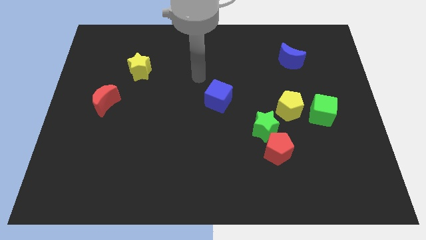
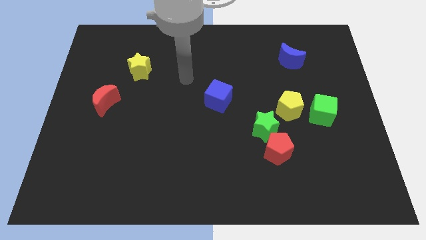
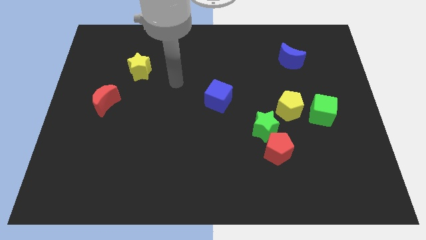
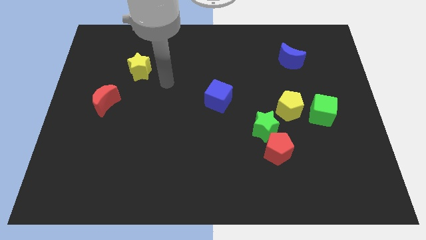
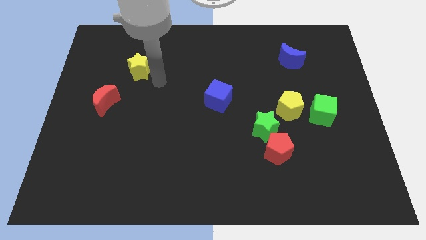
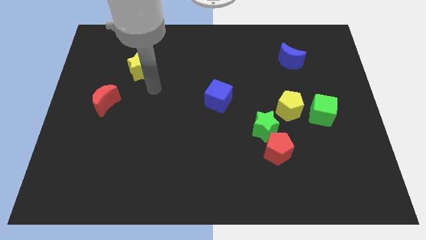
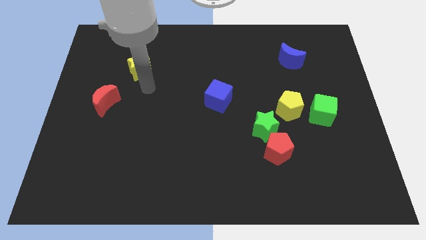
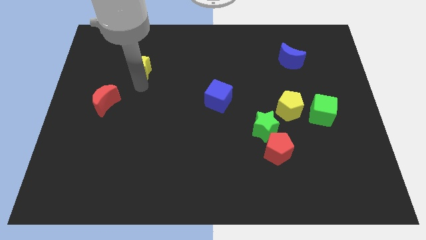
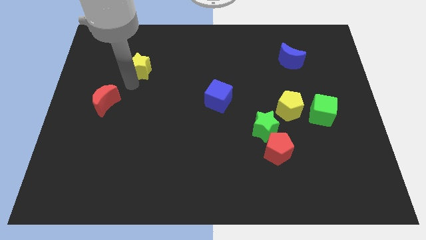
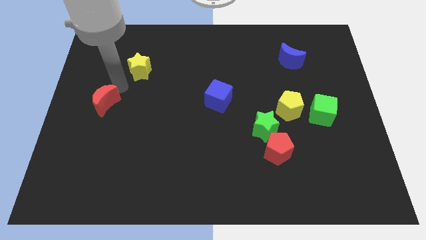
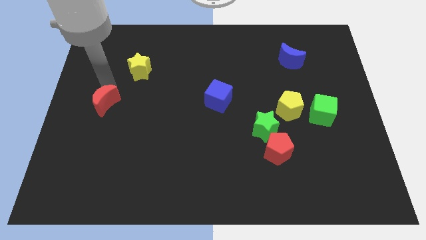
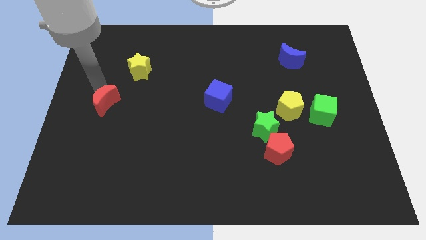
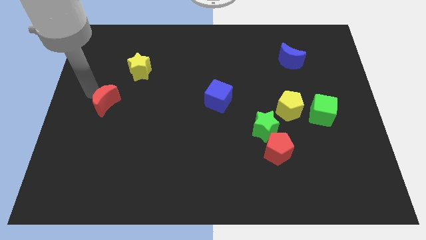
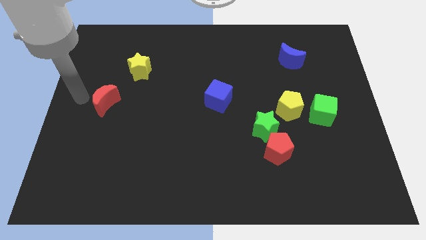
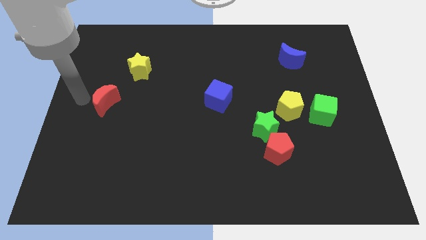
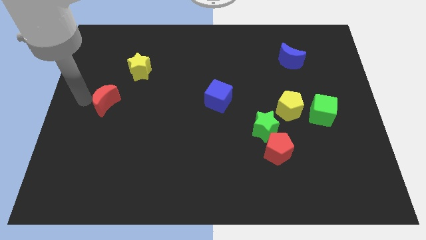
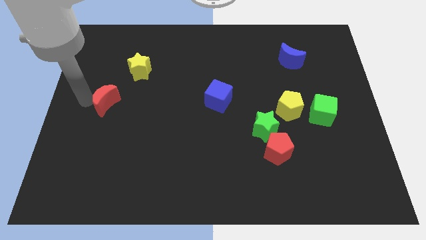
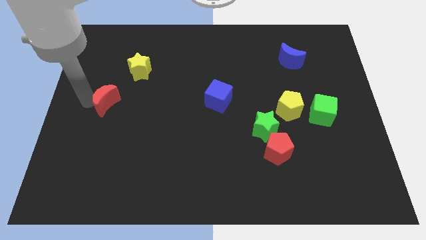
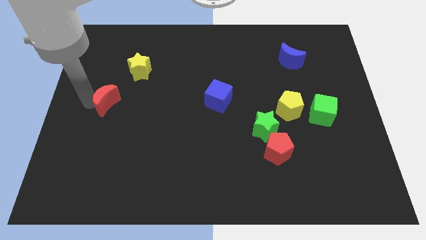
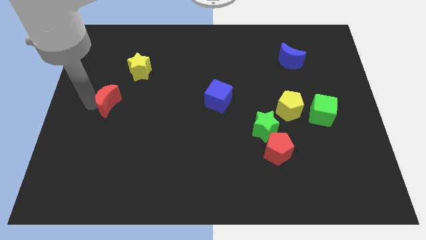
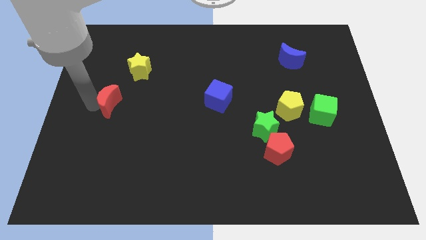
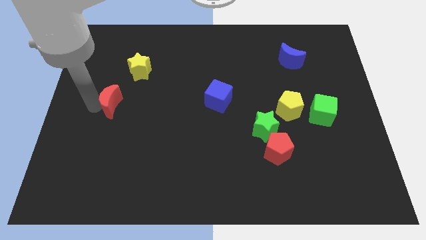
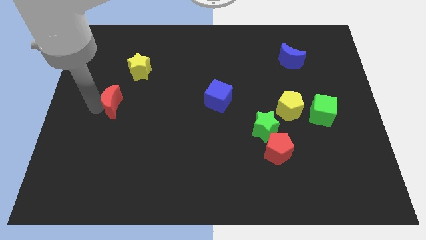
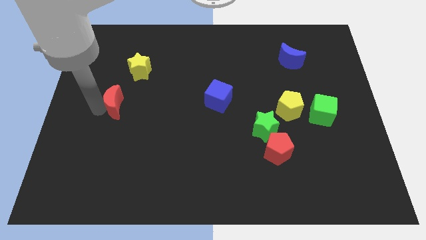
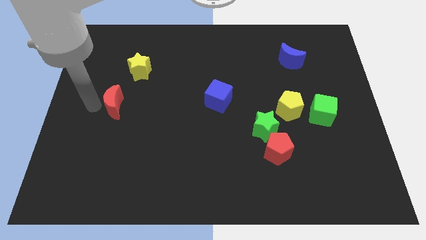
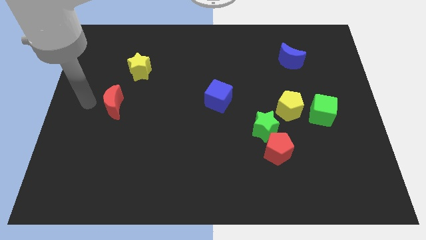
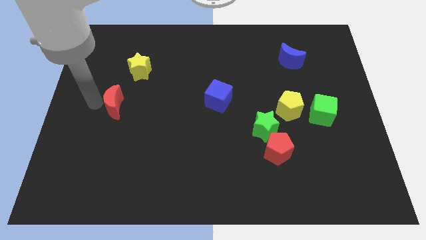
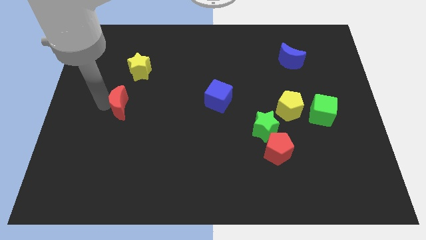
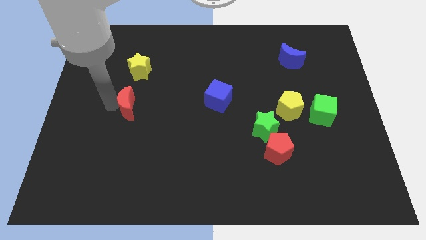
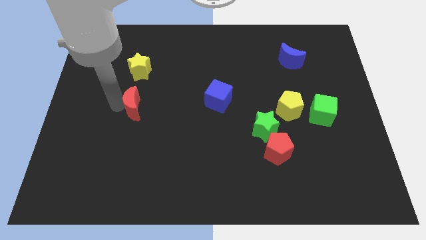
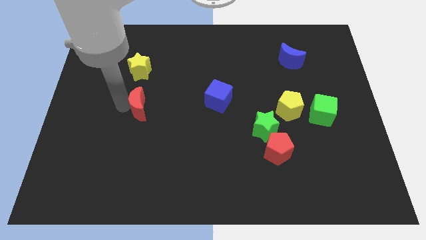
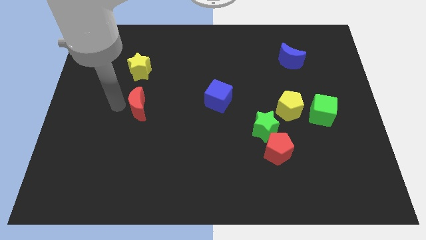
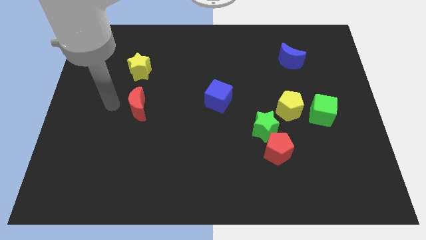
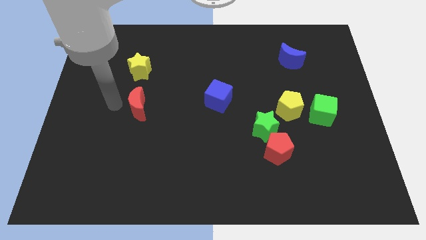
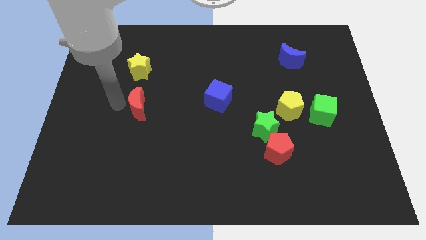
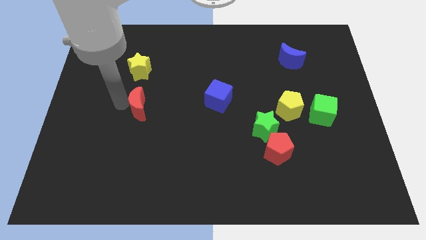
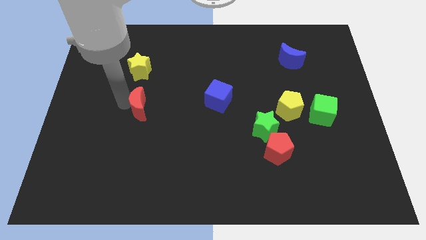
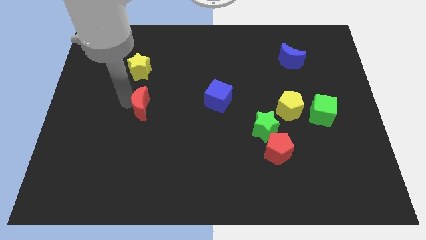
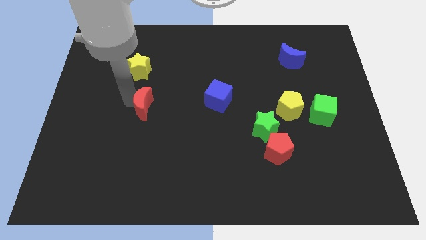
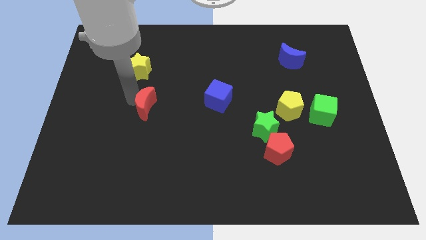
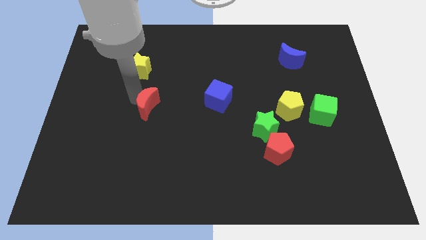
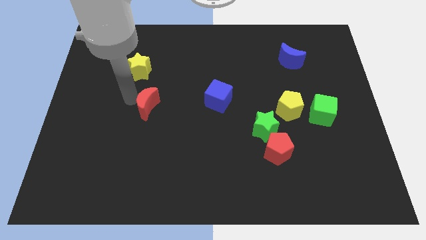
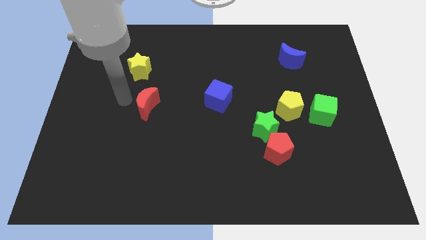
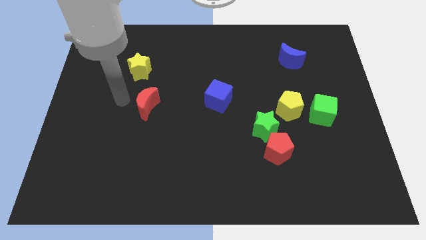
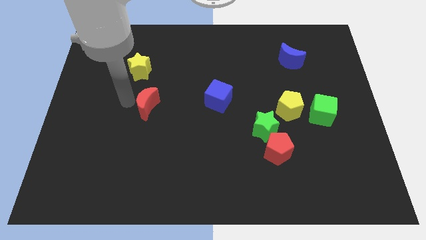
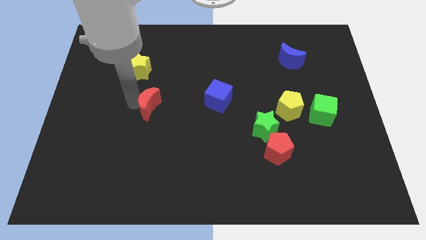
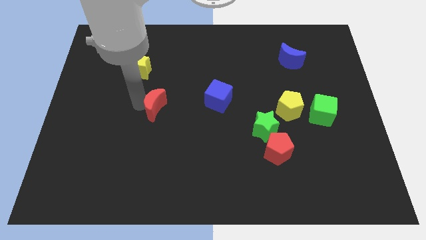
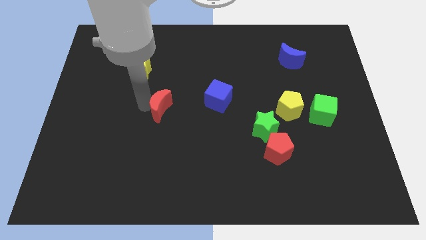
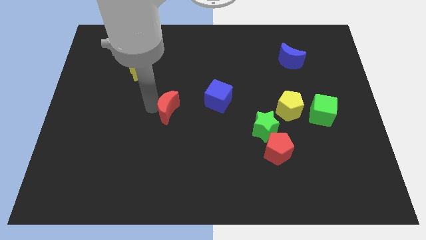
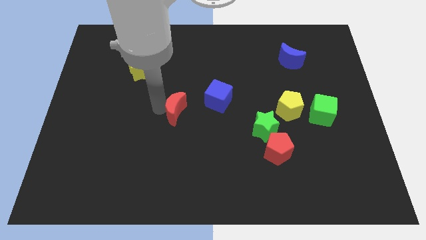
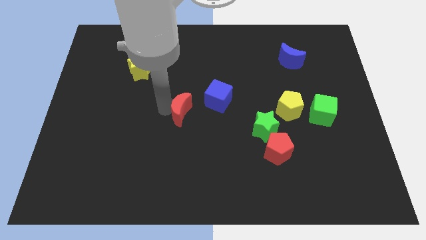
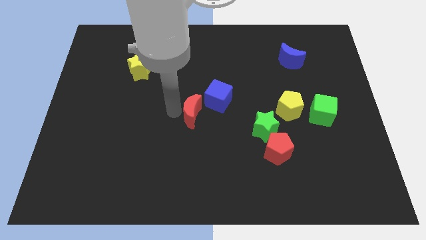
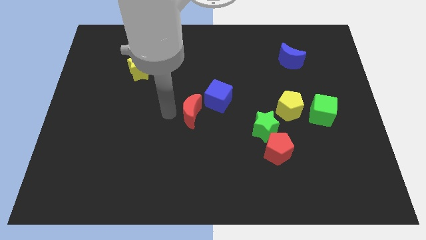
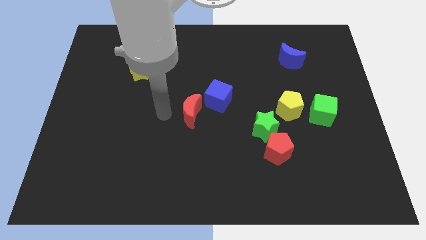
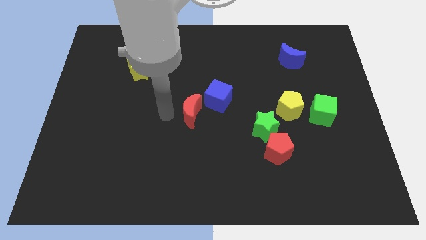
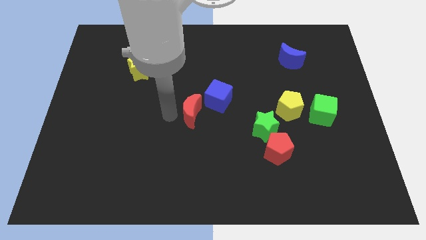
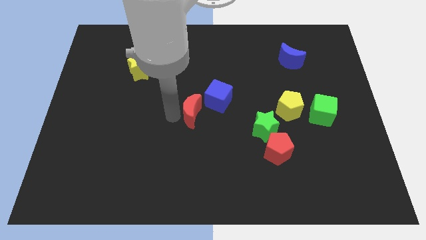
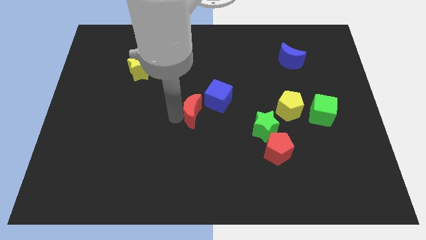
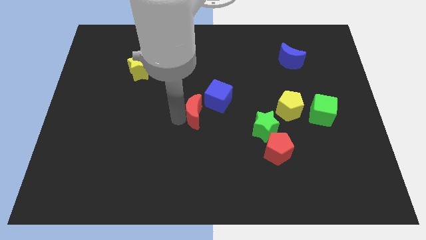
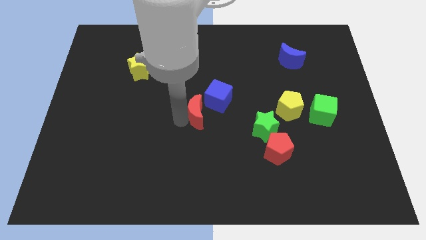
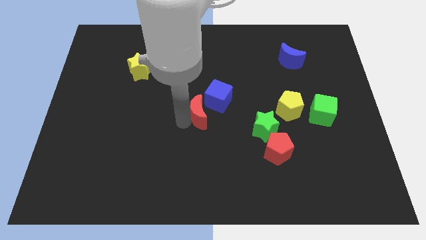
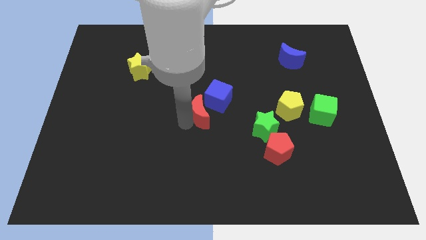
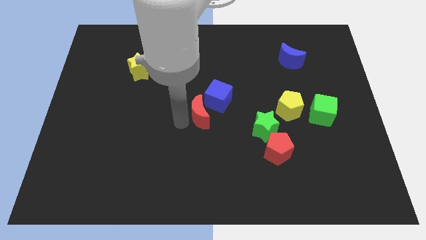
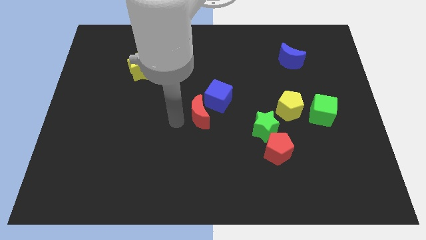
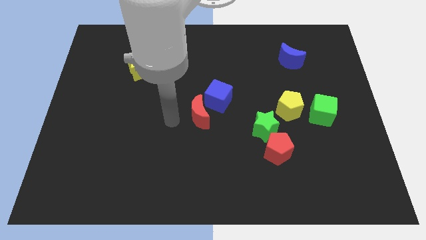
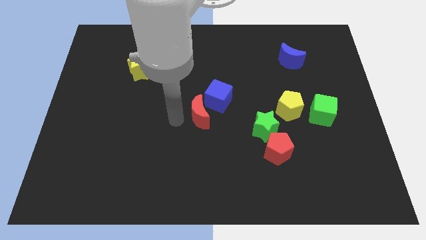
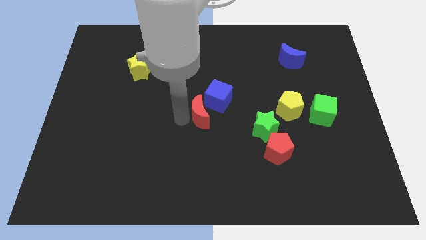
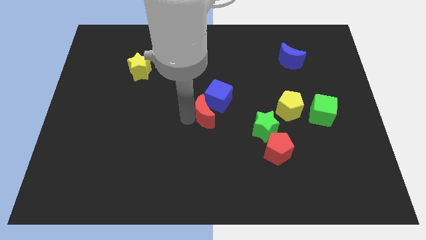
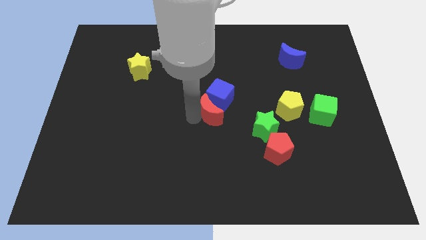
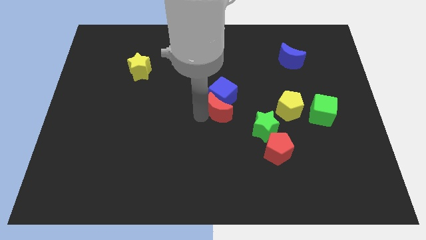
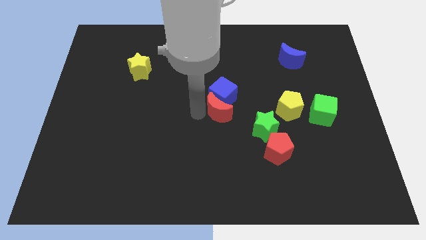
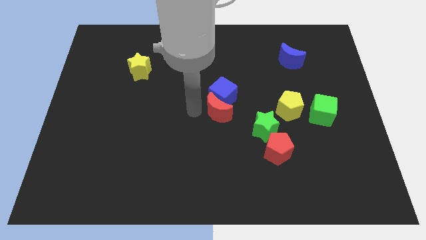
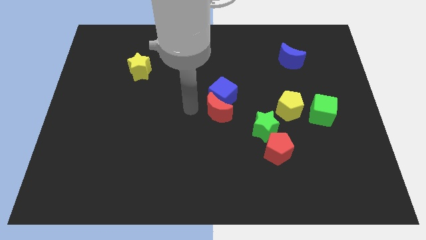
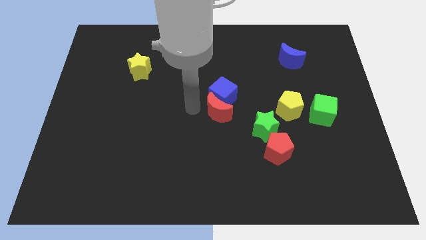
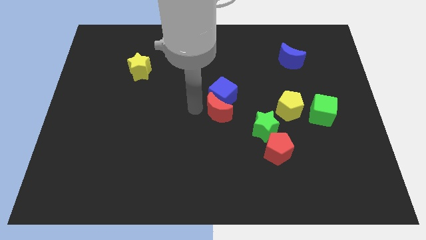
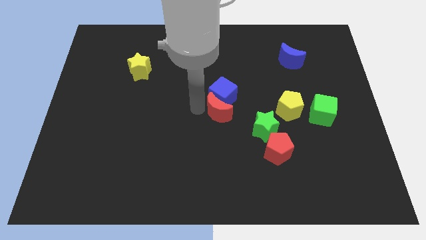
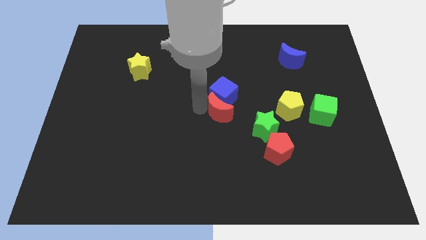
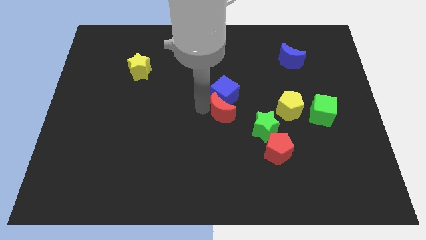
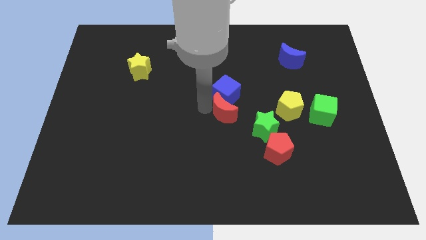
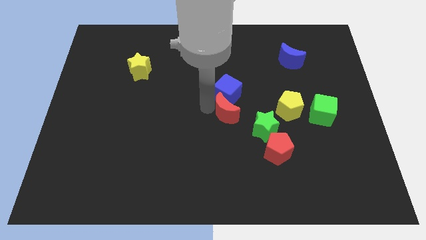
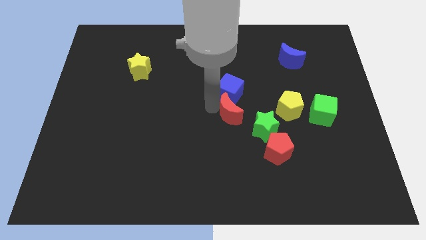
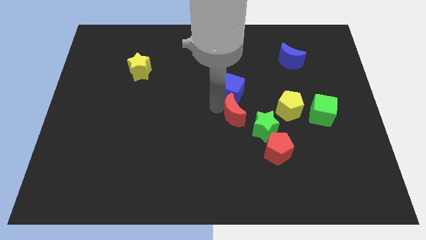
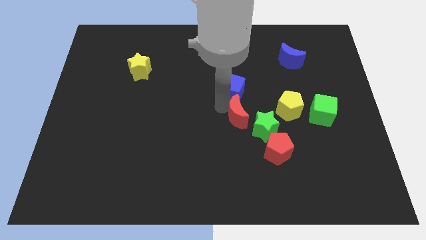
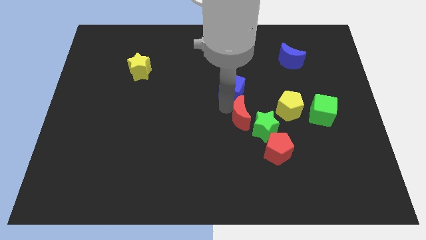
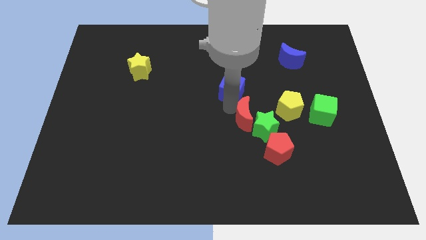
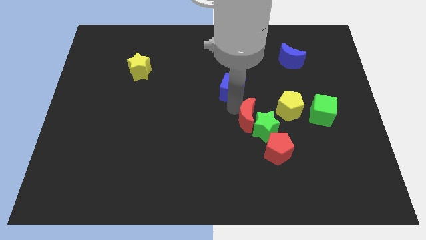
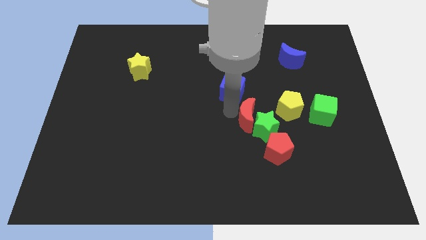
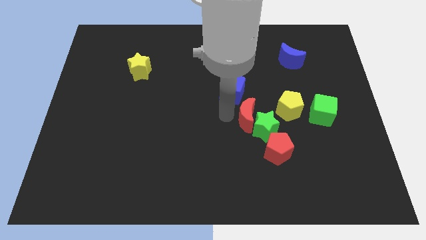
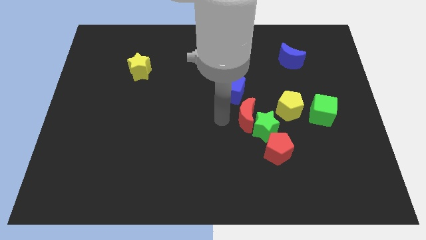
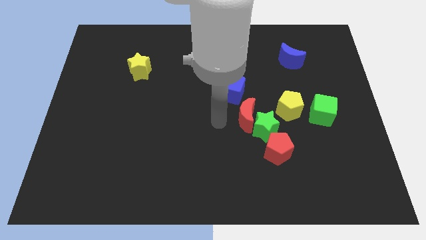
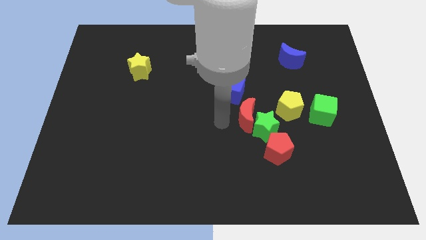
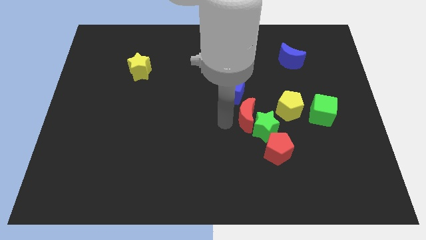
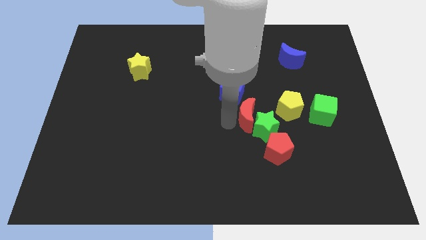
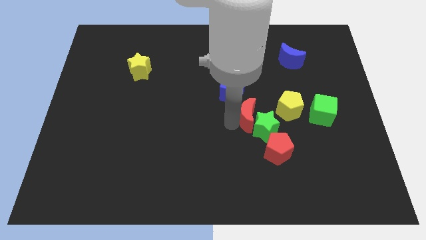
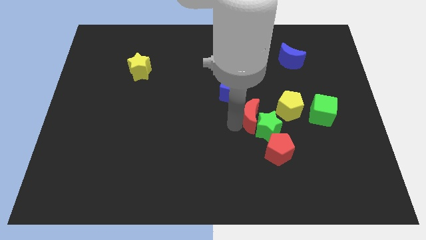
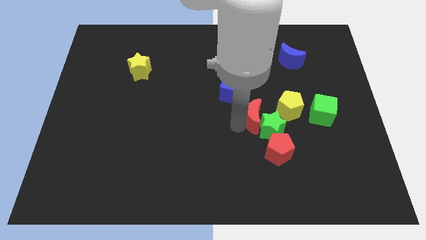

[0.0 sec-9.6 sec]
put the red moon to the left of the green cube
